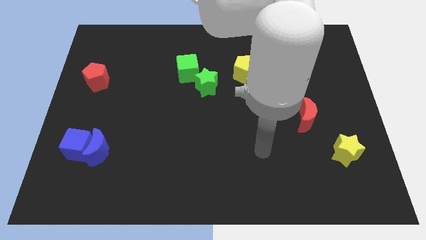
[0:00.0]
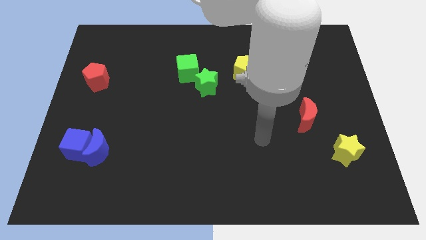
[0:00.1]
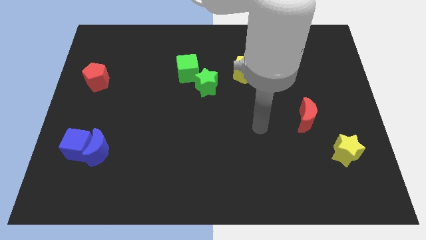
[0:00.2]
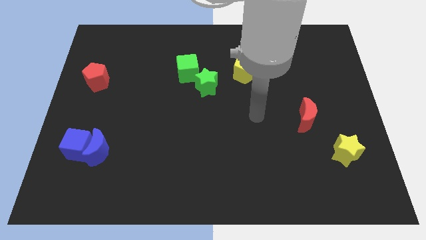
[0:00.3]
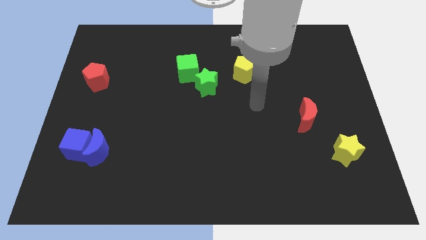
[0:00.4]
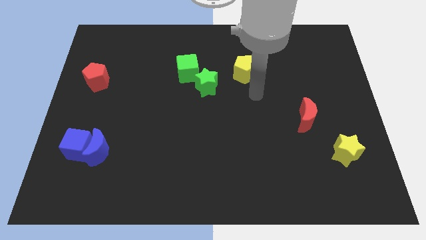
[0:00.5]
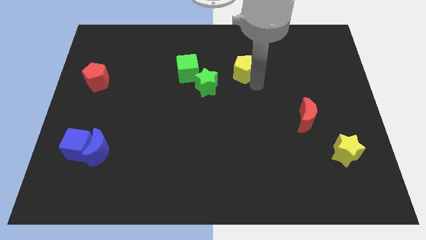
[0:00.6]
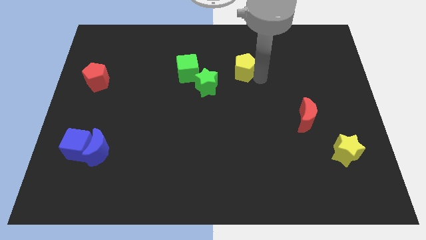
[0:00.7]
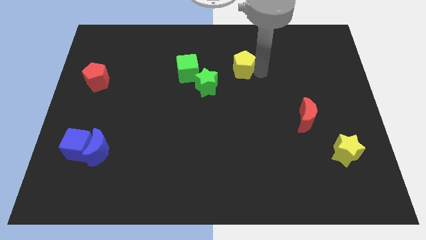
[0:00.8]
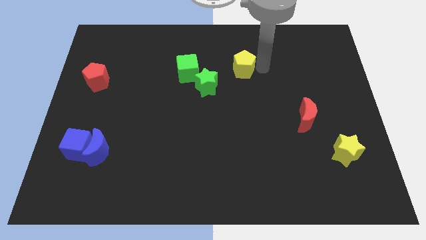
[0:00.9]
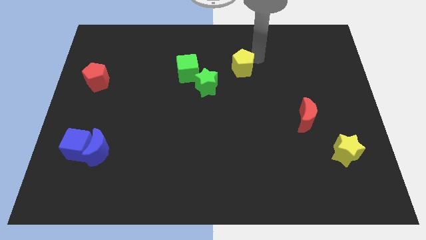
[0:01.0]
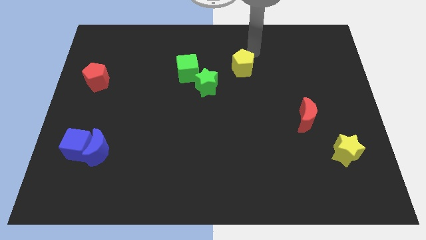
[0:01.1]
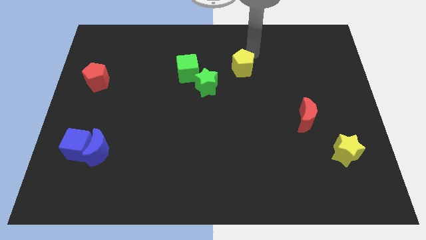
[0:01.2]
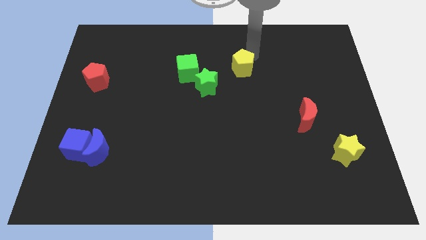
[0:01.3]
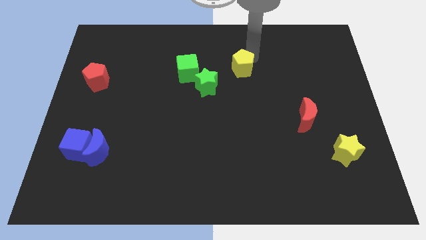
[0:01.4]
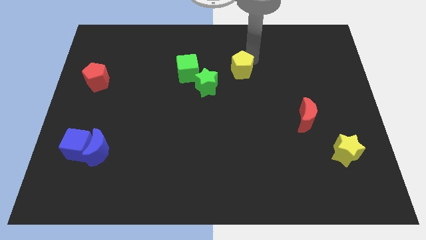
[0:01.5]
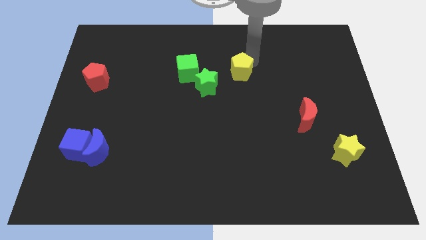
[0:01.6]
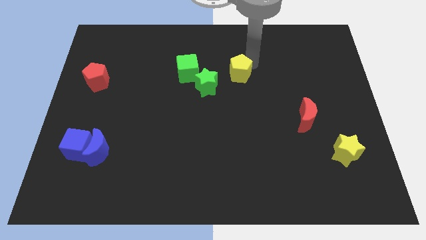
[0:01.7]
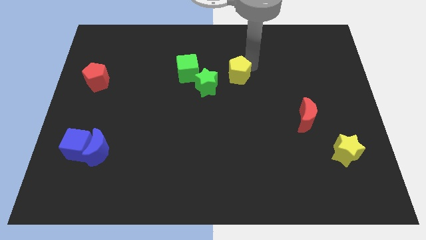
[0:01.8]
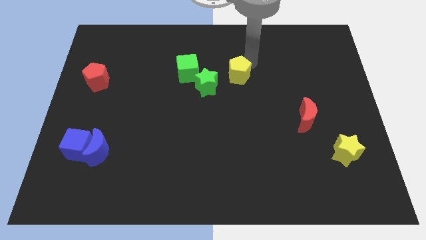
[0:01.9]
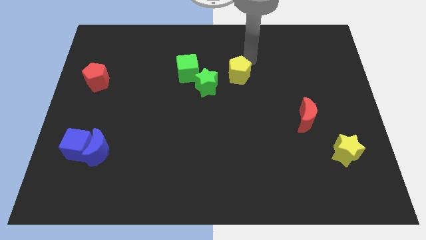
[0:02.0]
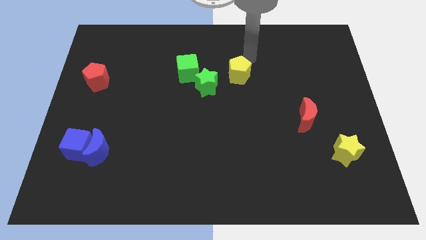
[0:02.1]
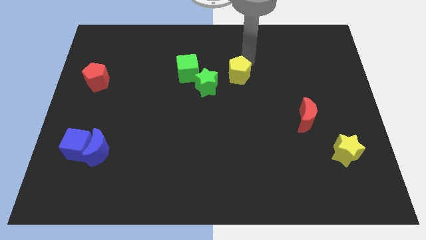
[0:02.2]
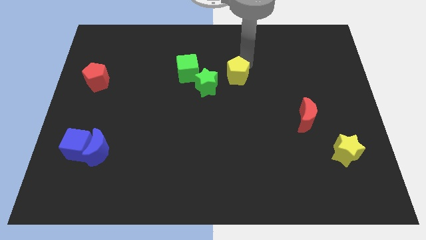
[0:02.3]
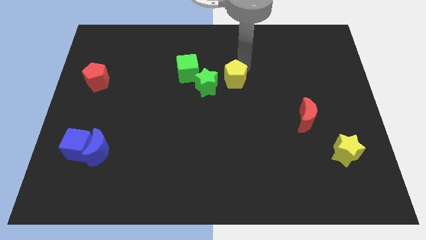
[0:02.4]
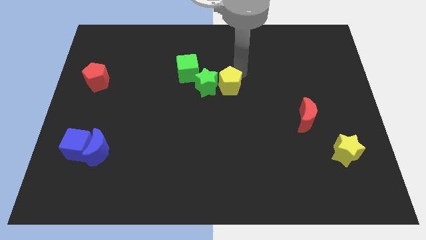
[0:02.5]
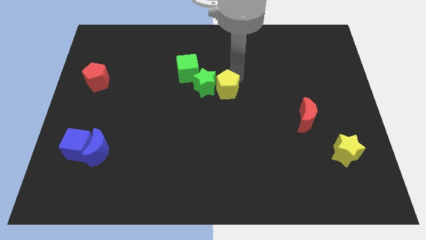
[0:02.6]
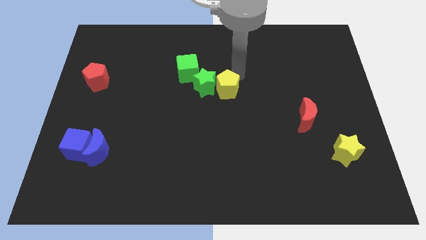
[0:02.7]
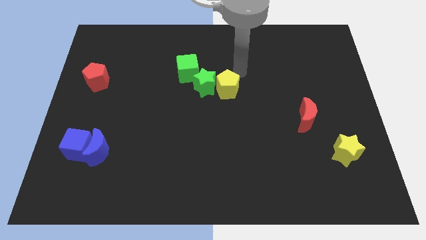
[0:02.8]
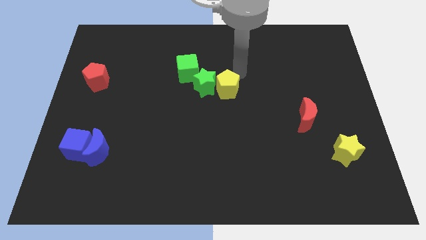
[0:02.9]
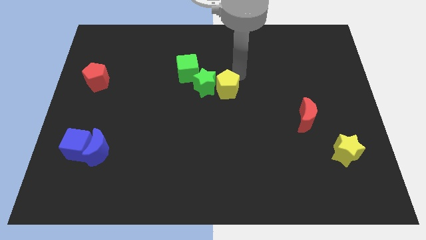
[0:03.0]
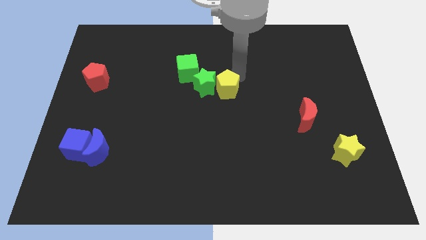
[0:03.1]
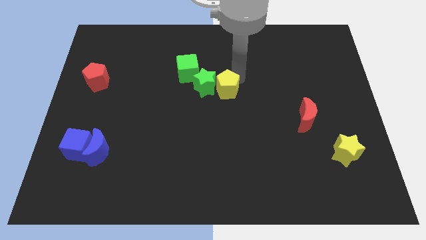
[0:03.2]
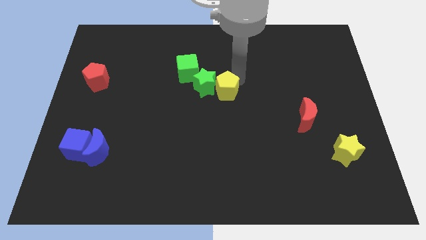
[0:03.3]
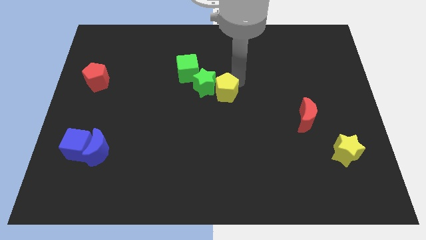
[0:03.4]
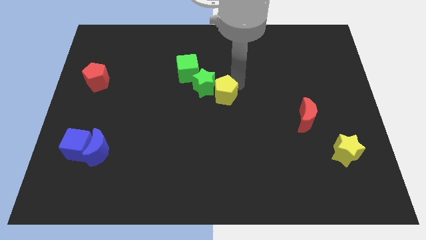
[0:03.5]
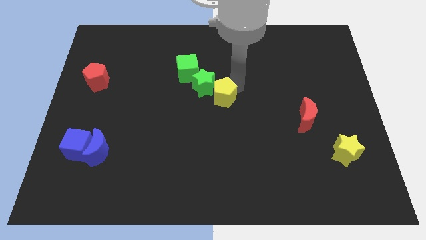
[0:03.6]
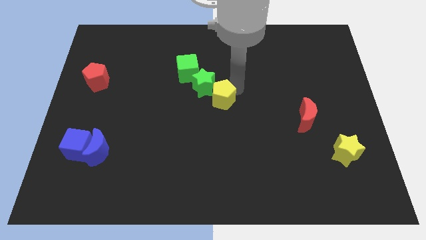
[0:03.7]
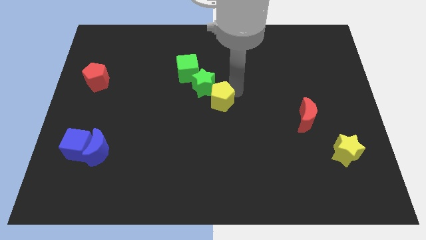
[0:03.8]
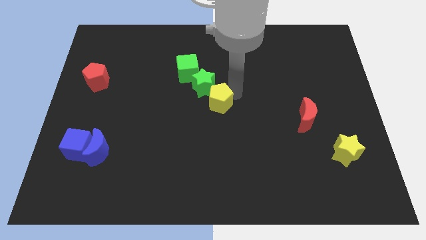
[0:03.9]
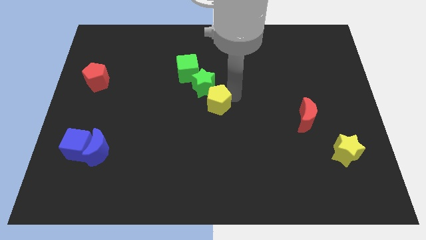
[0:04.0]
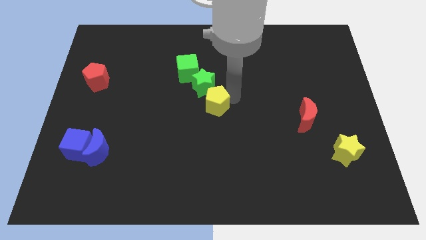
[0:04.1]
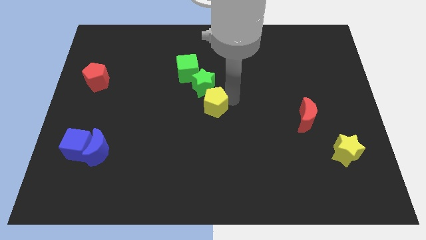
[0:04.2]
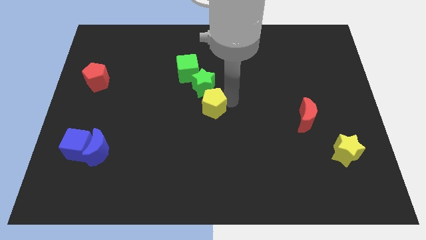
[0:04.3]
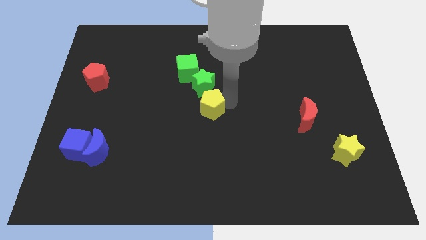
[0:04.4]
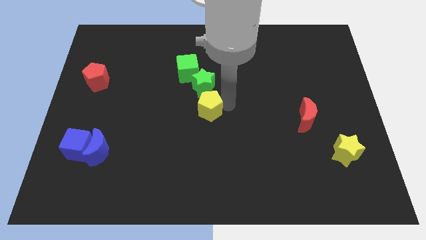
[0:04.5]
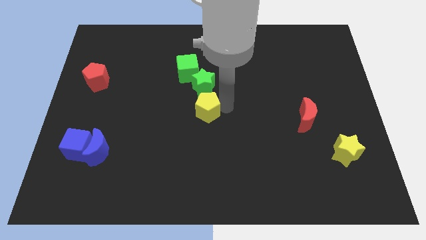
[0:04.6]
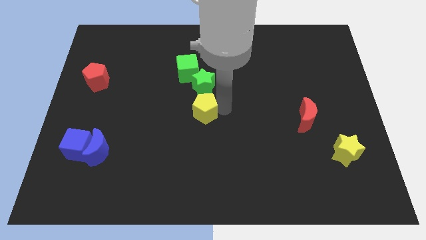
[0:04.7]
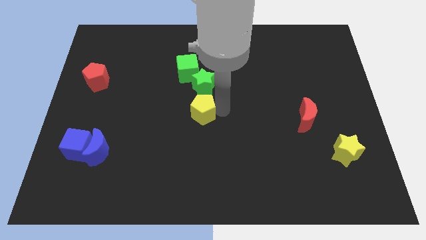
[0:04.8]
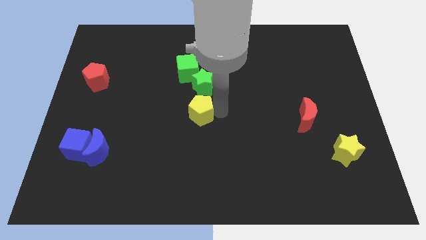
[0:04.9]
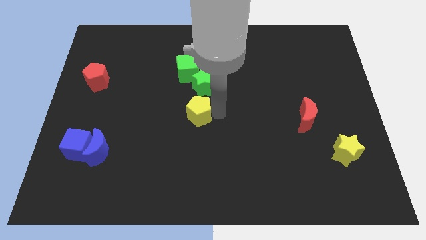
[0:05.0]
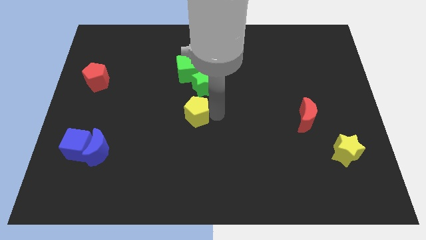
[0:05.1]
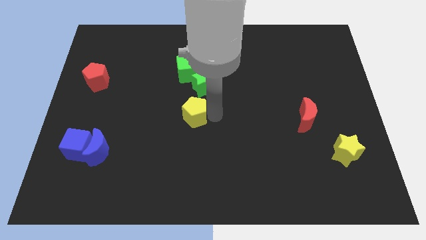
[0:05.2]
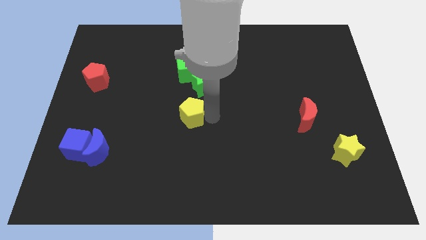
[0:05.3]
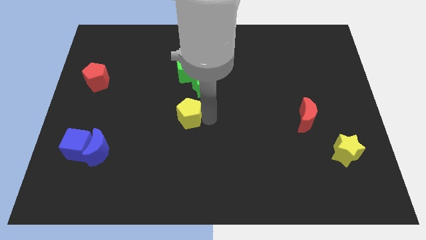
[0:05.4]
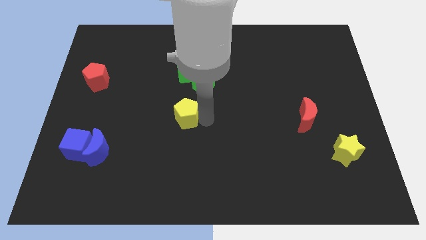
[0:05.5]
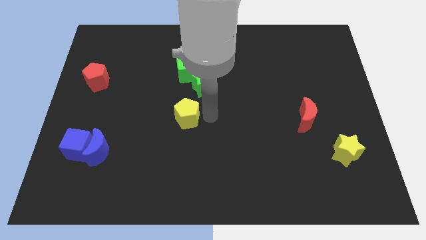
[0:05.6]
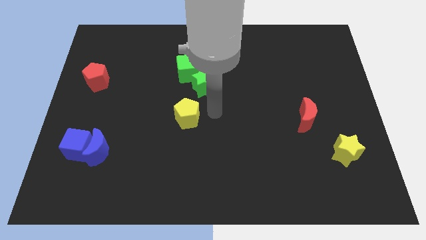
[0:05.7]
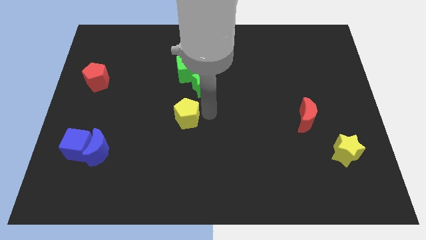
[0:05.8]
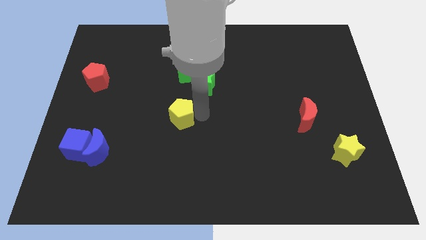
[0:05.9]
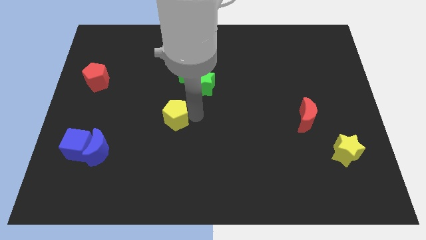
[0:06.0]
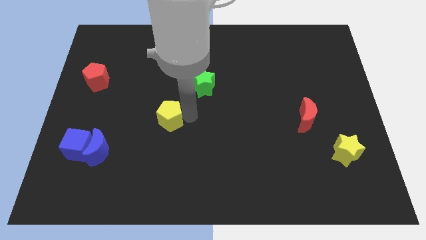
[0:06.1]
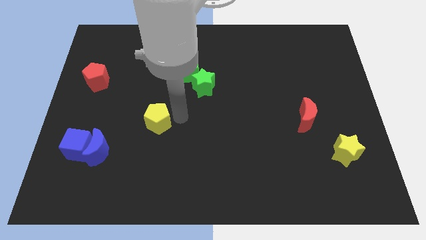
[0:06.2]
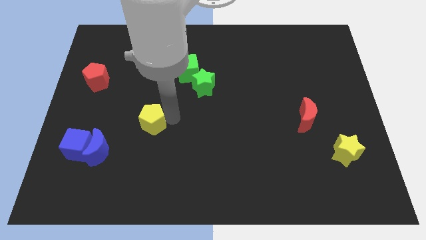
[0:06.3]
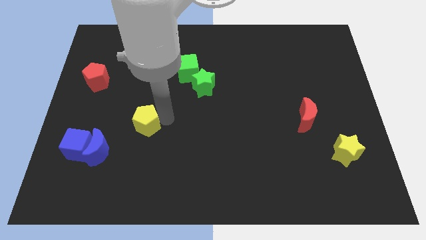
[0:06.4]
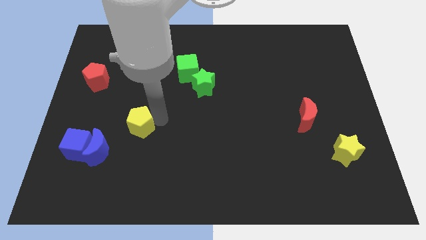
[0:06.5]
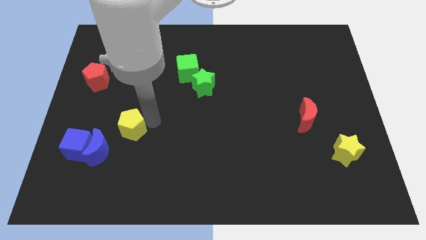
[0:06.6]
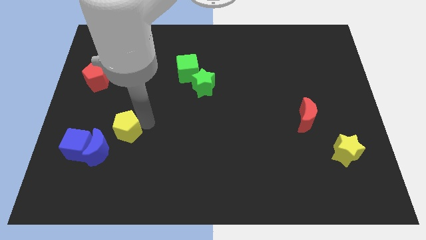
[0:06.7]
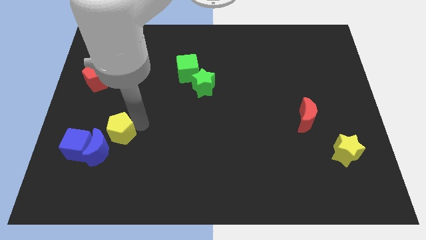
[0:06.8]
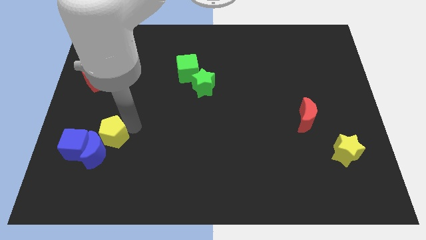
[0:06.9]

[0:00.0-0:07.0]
push the yellow pentagon next to the blue moon
